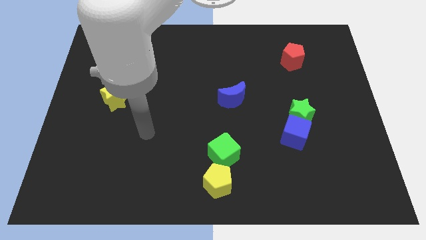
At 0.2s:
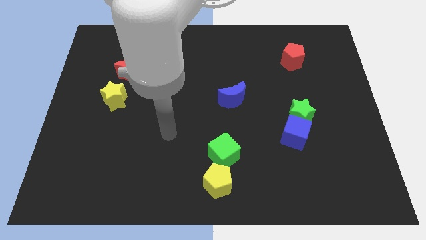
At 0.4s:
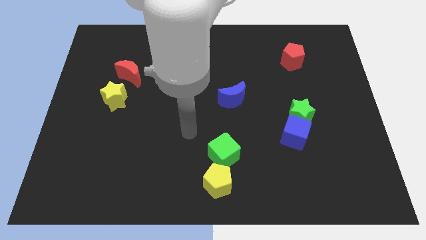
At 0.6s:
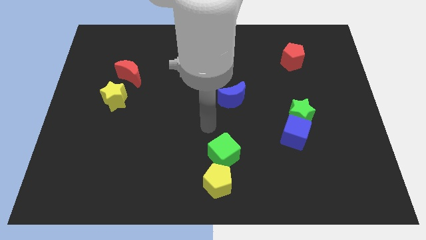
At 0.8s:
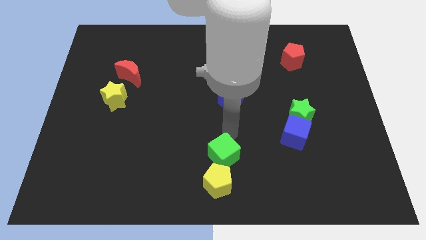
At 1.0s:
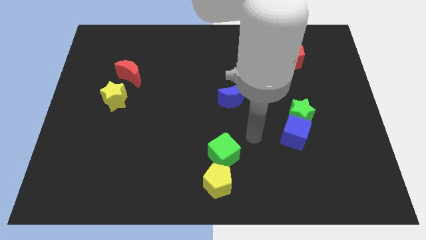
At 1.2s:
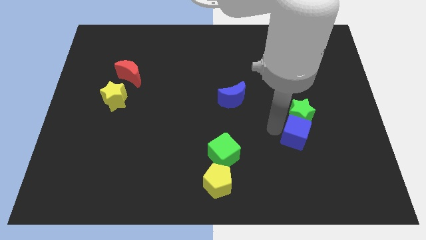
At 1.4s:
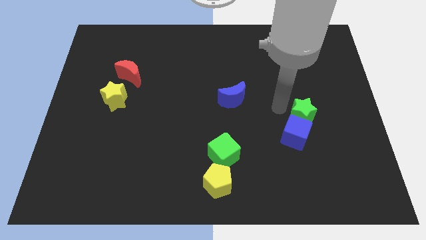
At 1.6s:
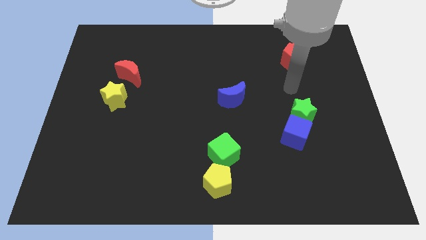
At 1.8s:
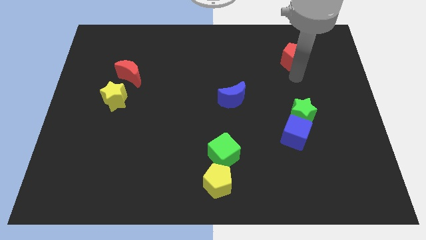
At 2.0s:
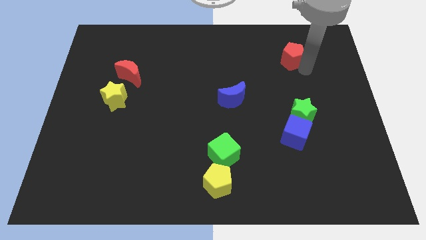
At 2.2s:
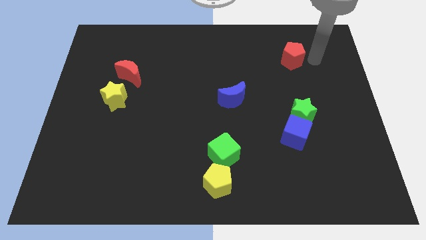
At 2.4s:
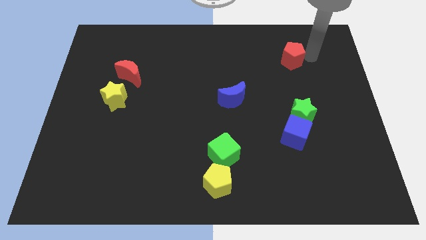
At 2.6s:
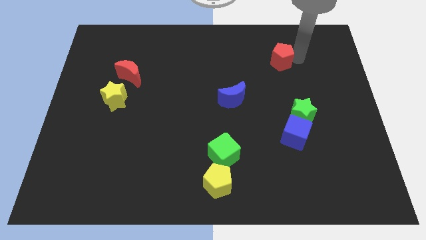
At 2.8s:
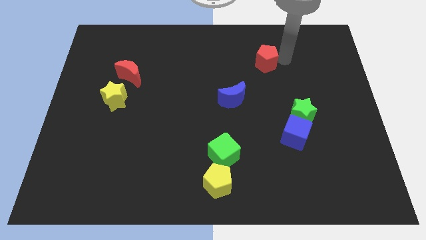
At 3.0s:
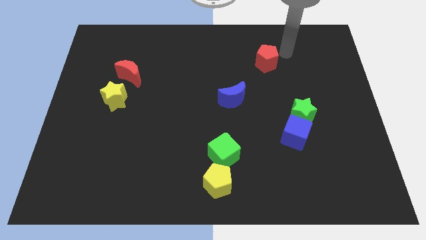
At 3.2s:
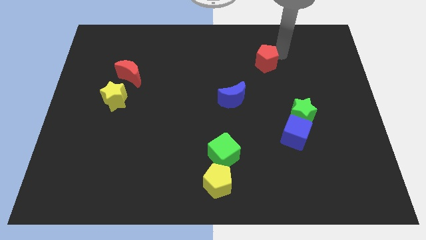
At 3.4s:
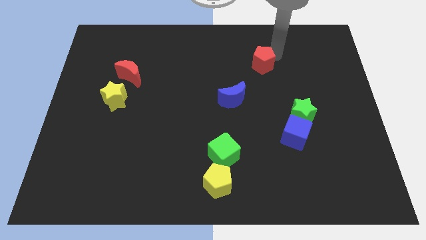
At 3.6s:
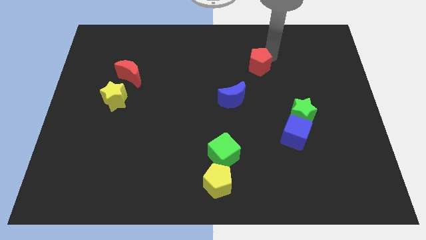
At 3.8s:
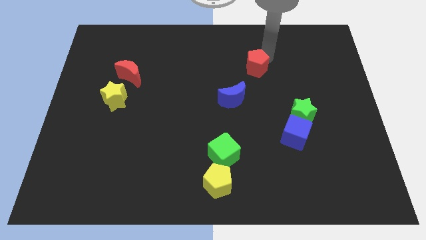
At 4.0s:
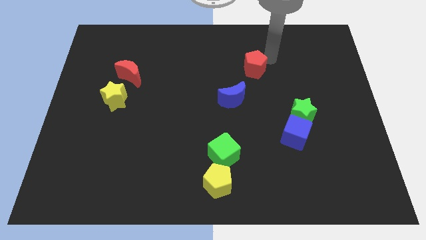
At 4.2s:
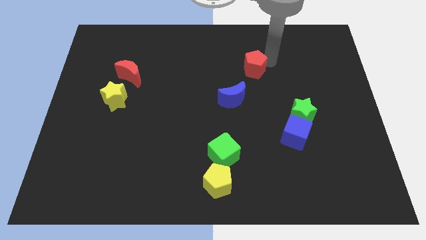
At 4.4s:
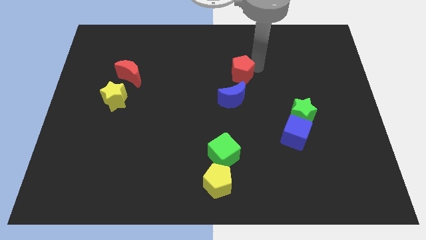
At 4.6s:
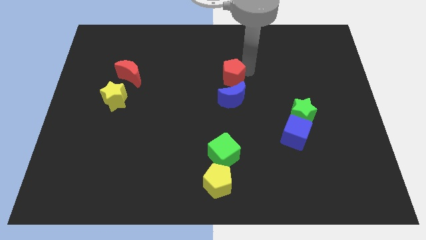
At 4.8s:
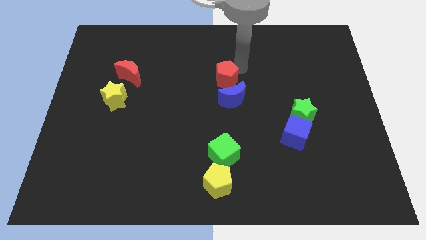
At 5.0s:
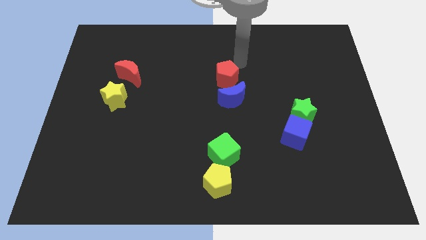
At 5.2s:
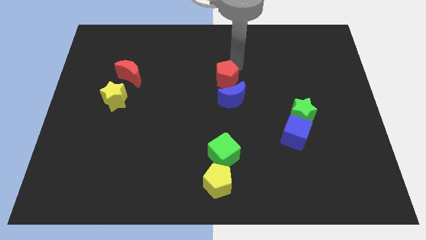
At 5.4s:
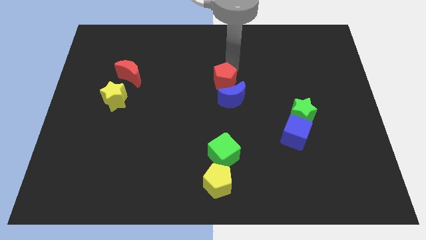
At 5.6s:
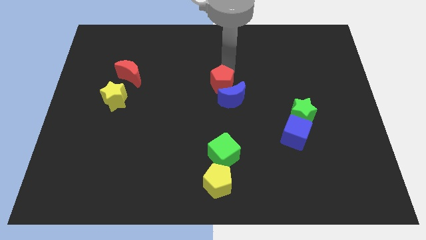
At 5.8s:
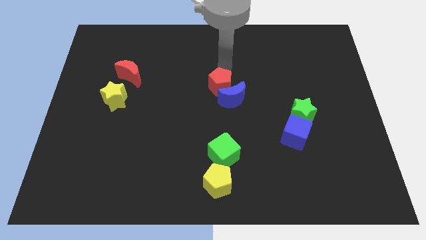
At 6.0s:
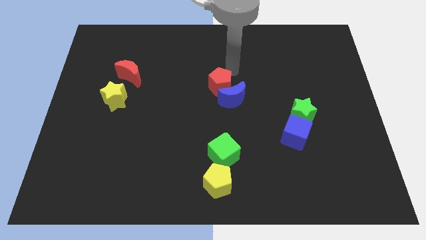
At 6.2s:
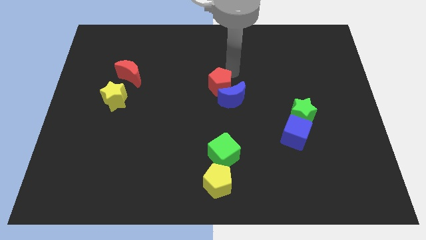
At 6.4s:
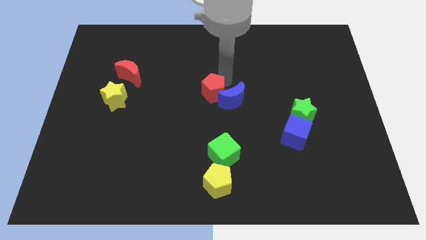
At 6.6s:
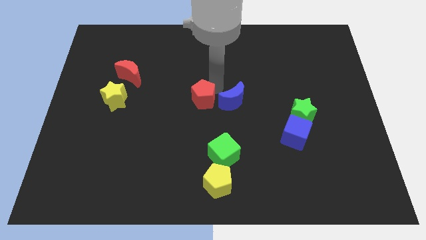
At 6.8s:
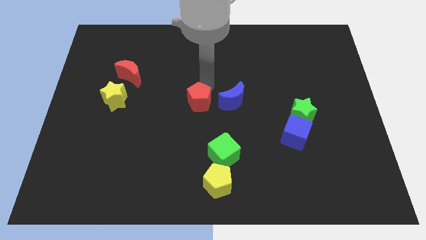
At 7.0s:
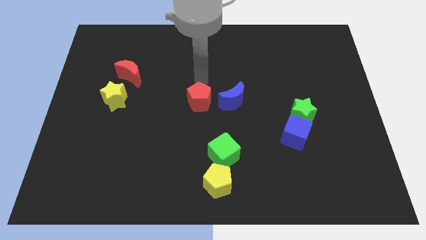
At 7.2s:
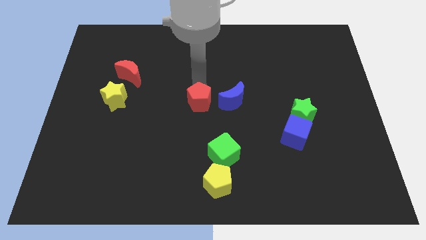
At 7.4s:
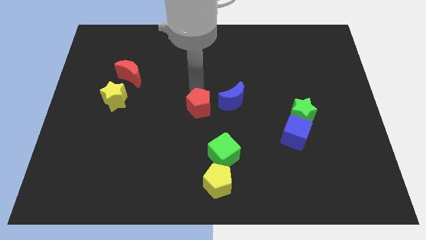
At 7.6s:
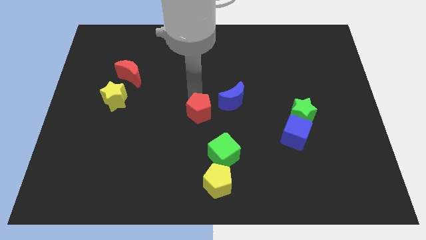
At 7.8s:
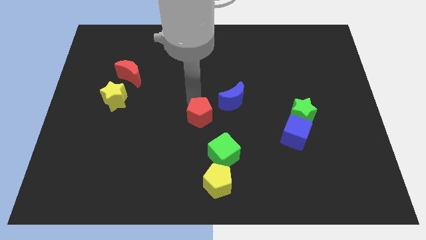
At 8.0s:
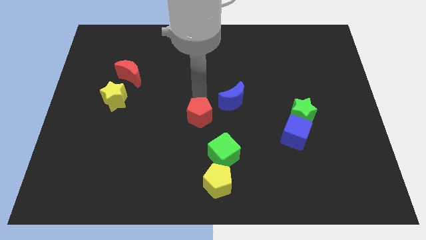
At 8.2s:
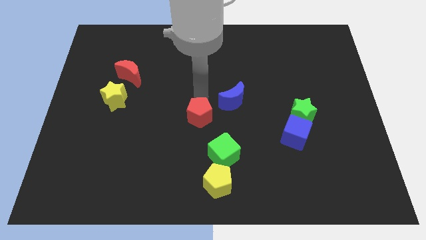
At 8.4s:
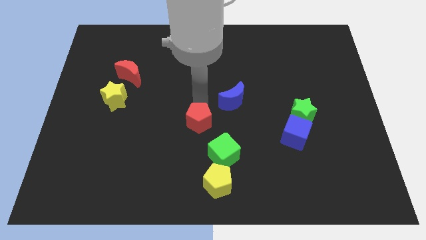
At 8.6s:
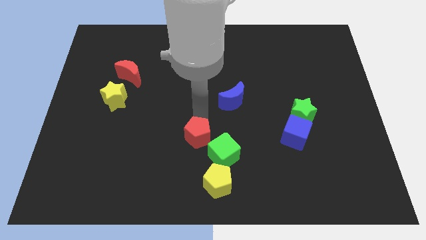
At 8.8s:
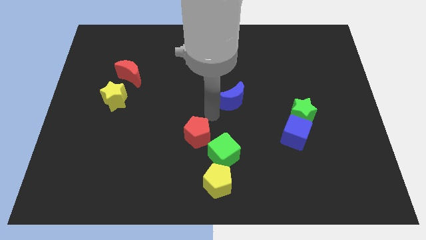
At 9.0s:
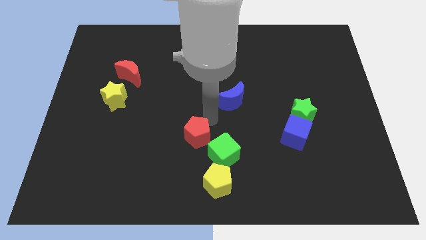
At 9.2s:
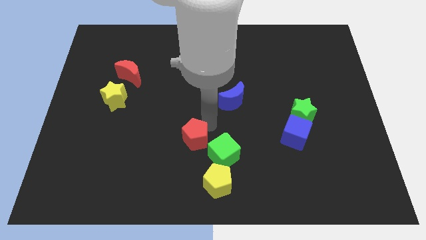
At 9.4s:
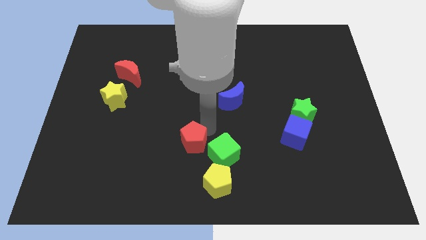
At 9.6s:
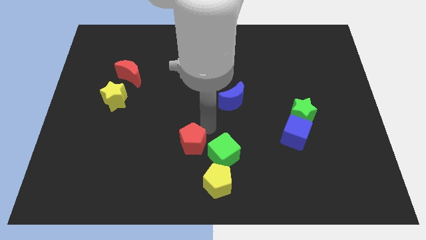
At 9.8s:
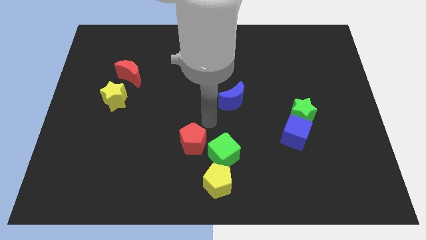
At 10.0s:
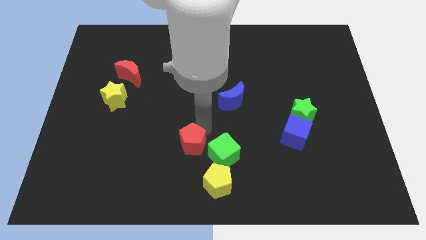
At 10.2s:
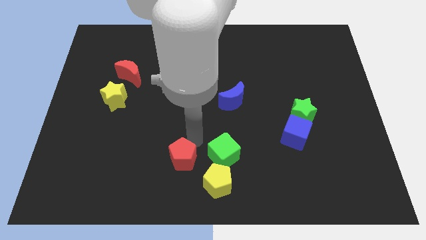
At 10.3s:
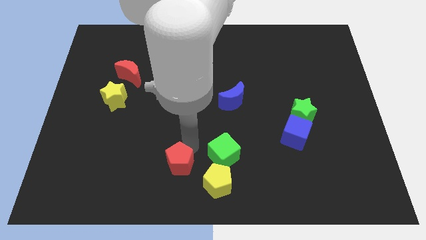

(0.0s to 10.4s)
move the red pentagon left of the yellow pentagon

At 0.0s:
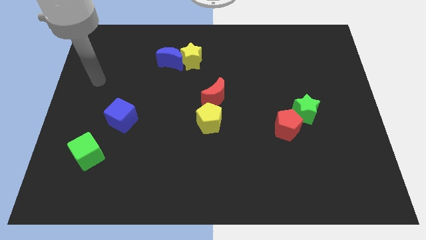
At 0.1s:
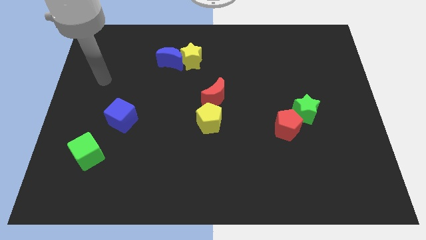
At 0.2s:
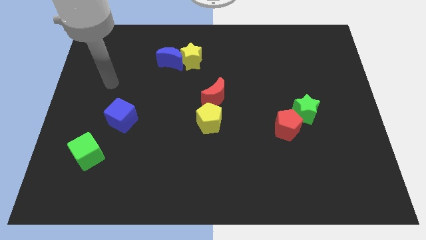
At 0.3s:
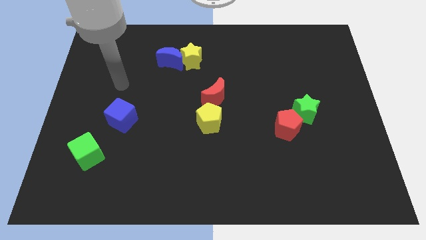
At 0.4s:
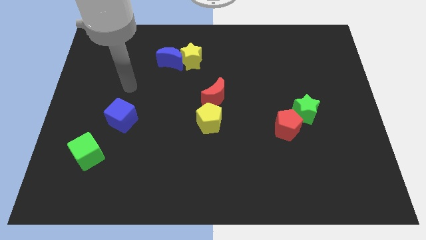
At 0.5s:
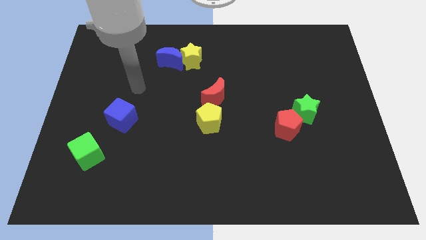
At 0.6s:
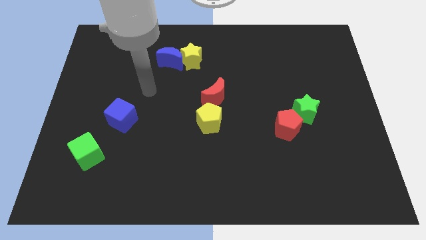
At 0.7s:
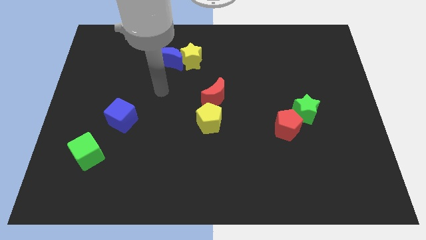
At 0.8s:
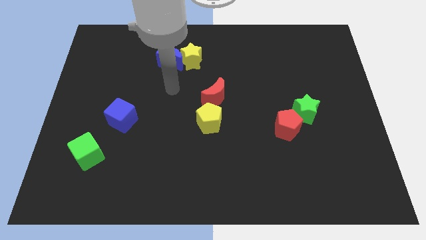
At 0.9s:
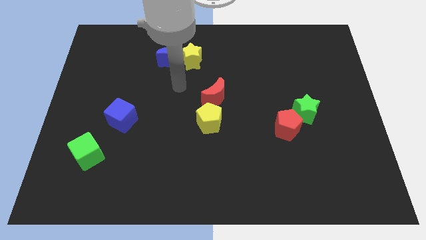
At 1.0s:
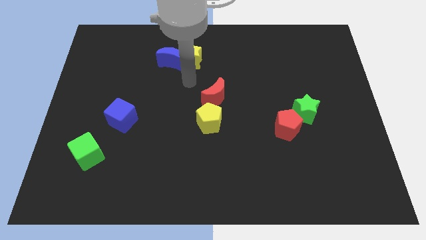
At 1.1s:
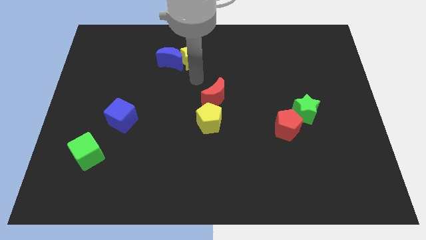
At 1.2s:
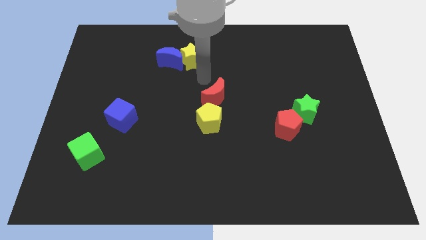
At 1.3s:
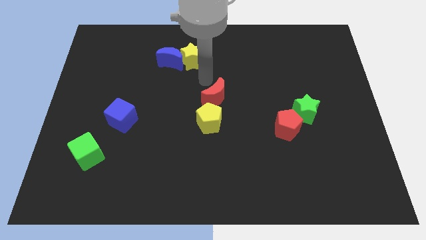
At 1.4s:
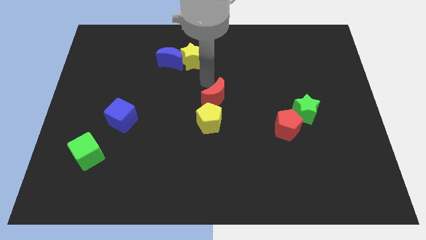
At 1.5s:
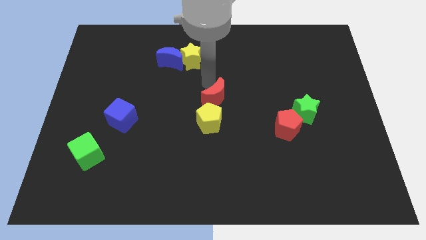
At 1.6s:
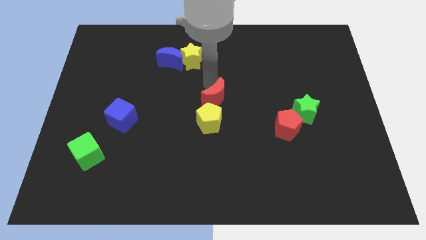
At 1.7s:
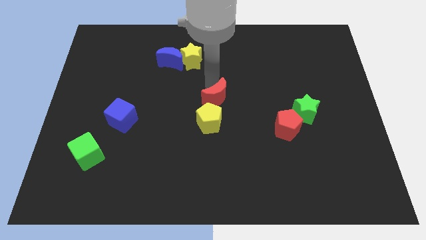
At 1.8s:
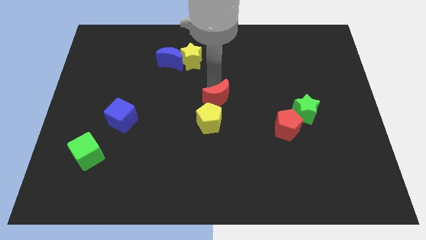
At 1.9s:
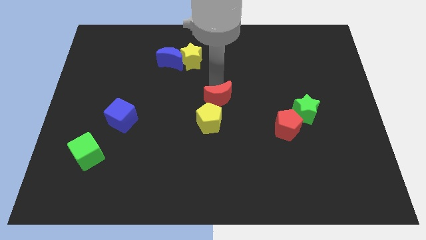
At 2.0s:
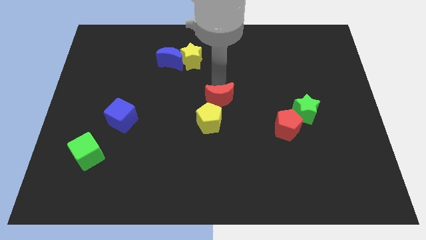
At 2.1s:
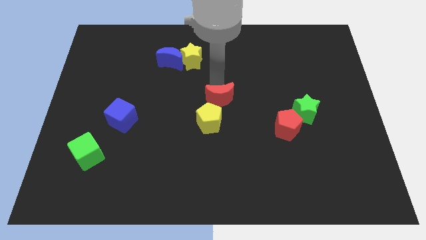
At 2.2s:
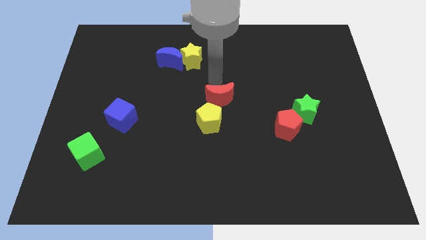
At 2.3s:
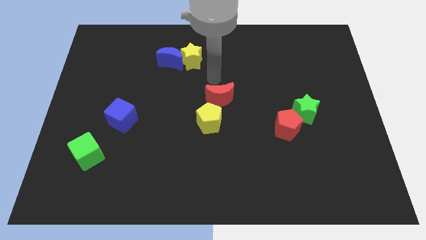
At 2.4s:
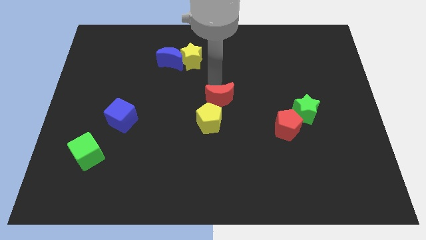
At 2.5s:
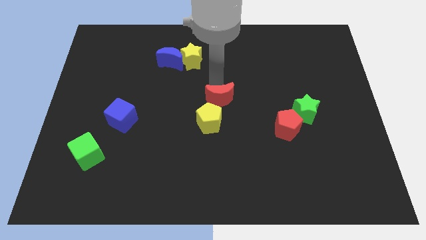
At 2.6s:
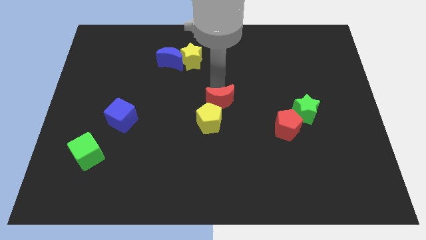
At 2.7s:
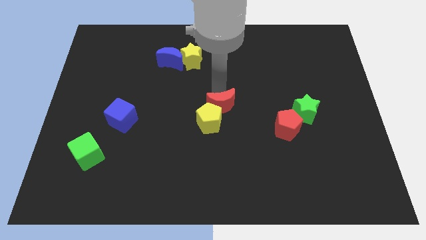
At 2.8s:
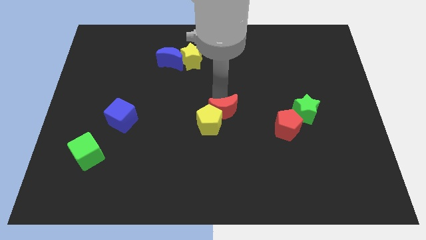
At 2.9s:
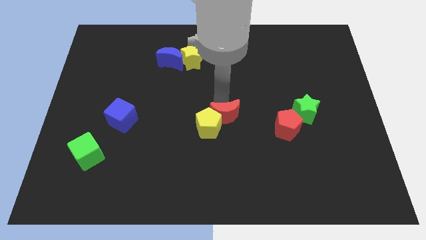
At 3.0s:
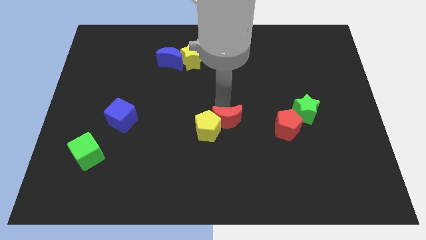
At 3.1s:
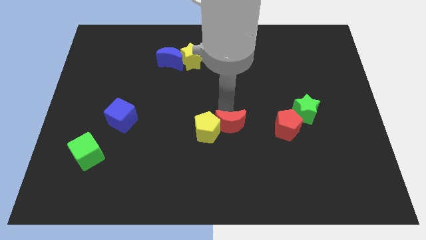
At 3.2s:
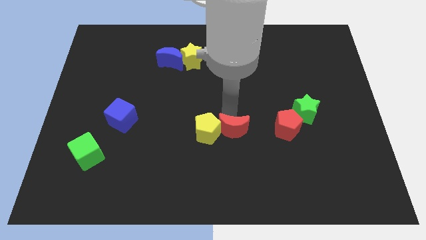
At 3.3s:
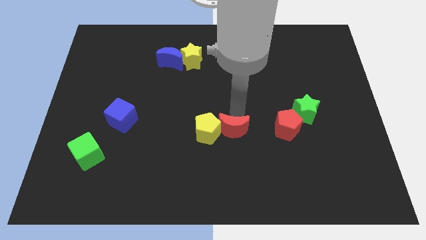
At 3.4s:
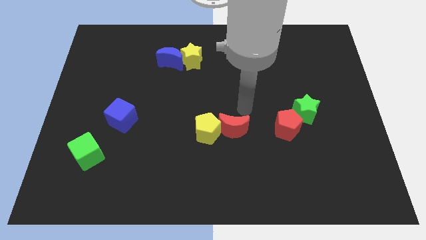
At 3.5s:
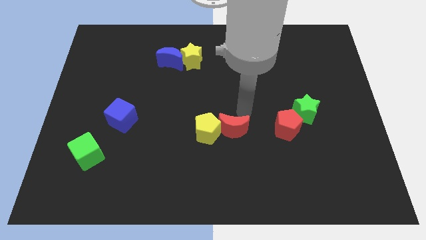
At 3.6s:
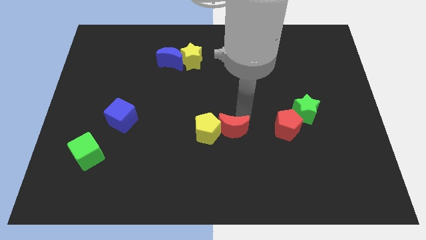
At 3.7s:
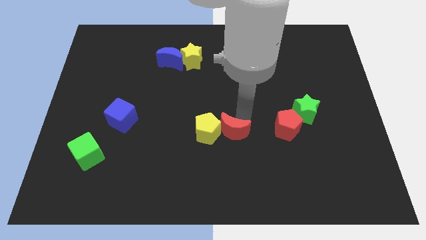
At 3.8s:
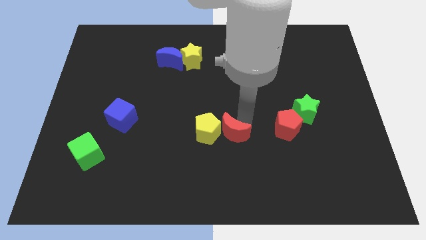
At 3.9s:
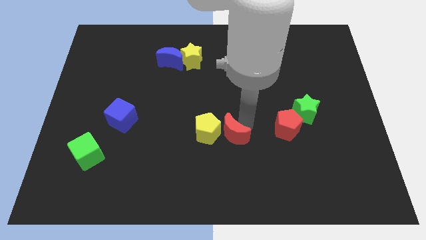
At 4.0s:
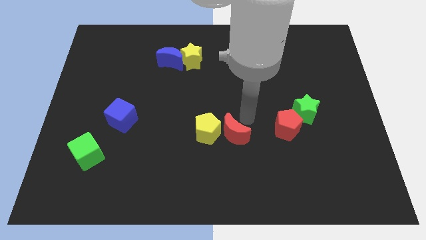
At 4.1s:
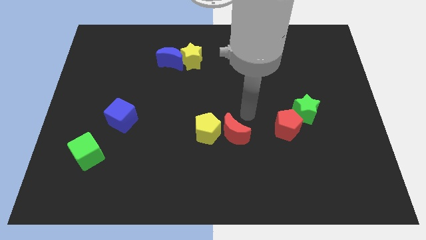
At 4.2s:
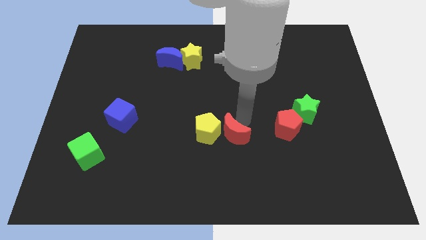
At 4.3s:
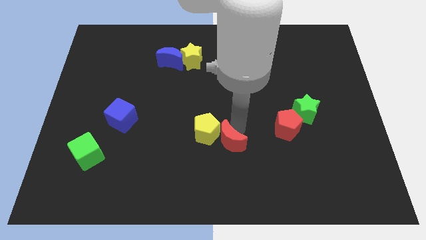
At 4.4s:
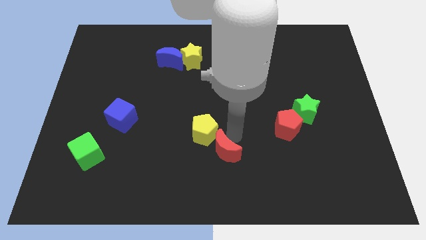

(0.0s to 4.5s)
slide the red moon to the bottom of the yellow pentagon
